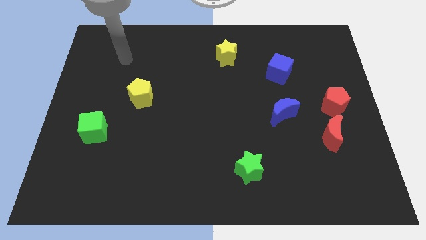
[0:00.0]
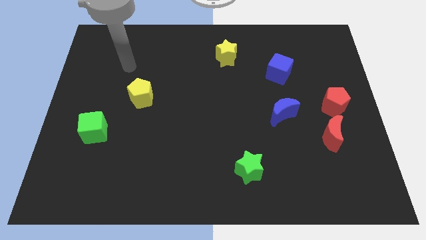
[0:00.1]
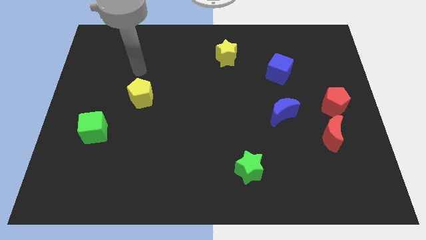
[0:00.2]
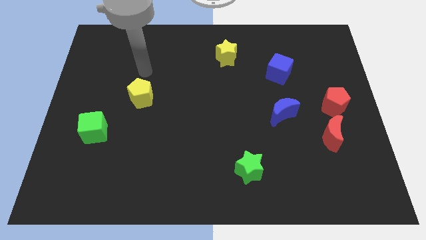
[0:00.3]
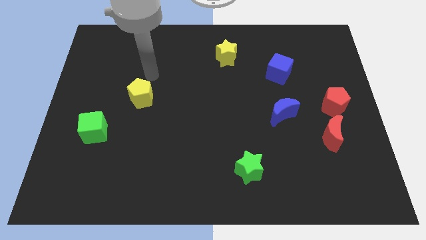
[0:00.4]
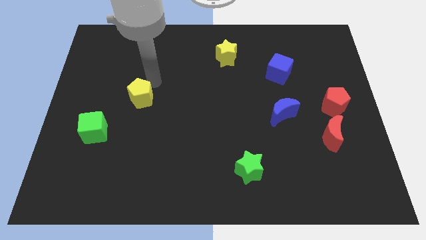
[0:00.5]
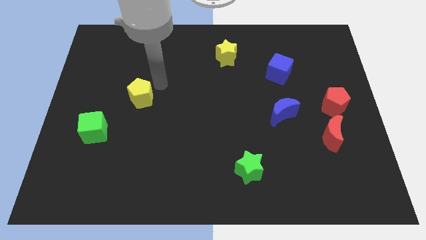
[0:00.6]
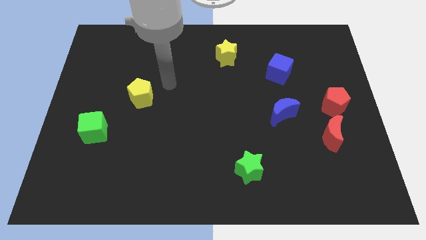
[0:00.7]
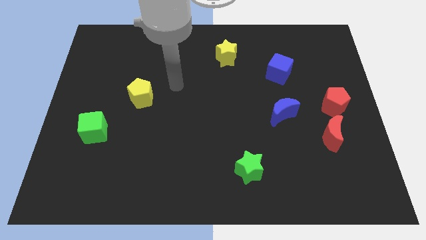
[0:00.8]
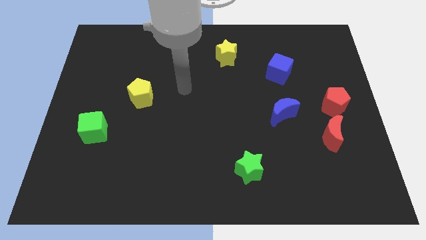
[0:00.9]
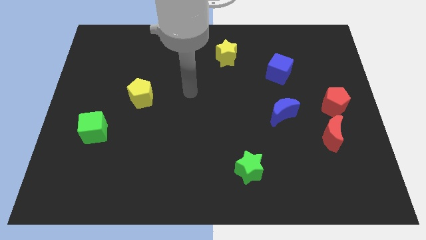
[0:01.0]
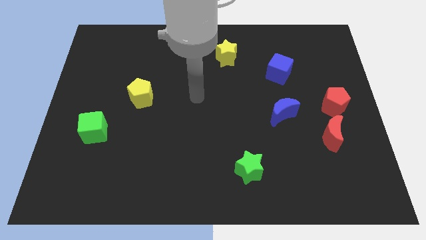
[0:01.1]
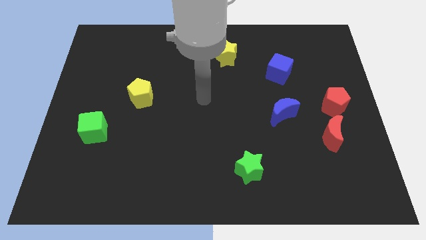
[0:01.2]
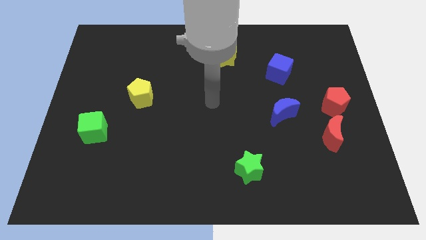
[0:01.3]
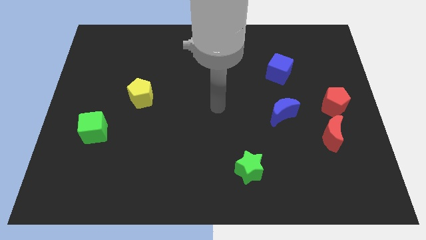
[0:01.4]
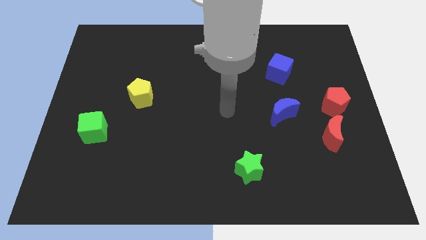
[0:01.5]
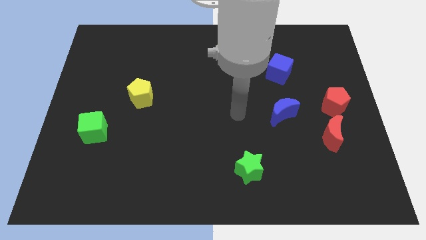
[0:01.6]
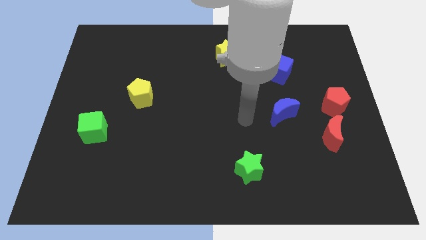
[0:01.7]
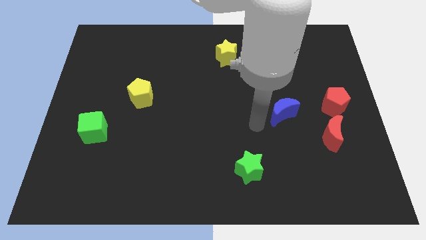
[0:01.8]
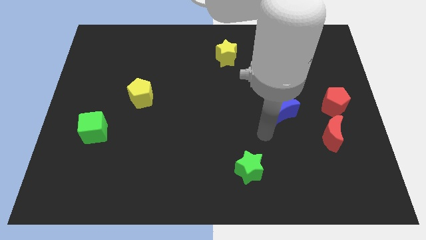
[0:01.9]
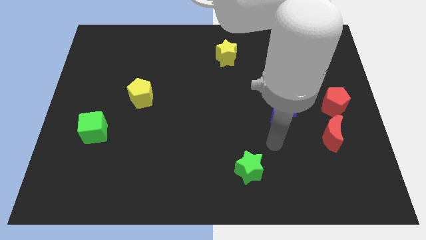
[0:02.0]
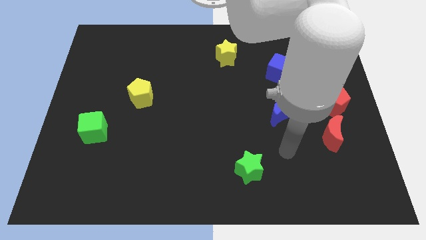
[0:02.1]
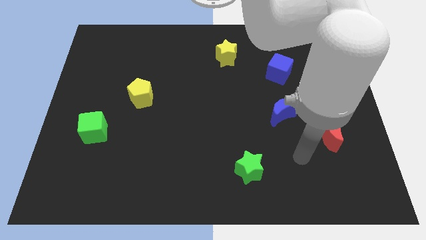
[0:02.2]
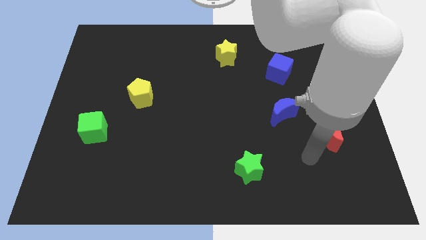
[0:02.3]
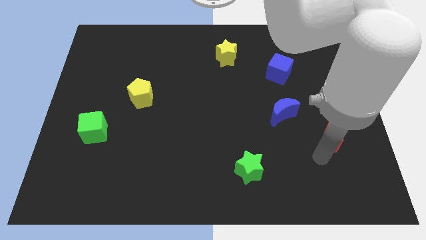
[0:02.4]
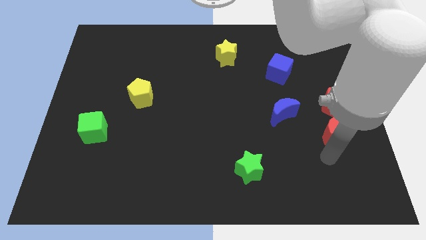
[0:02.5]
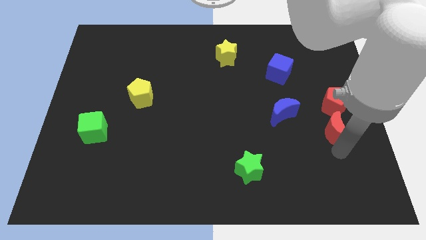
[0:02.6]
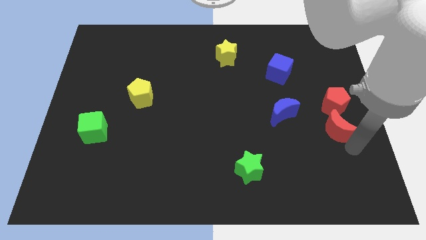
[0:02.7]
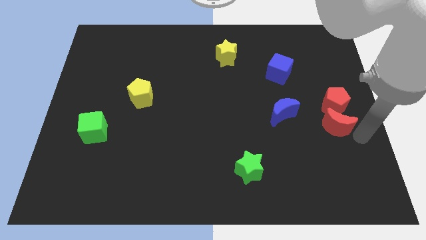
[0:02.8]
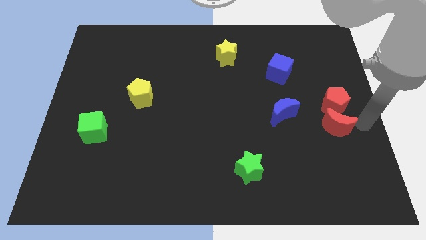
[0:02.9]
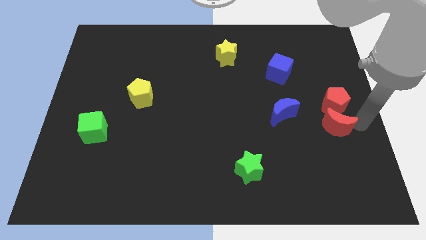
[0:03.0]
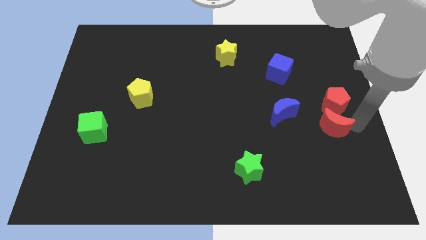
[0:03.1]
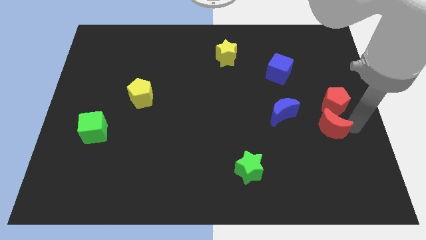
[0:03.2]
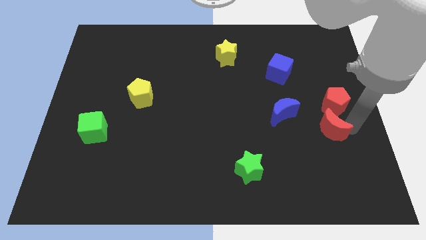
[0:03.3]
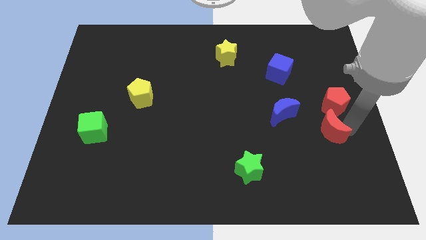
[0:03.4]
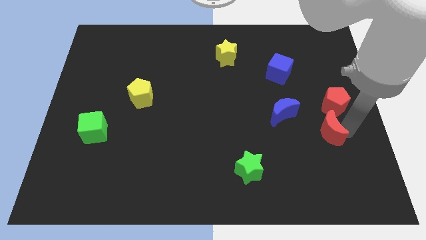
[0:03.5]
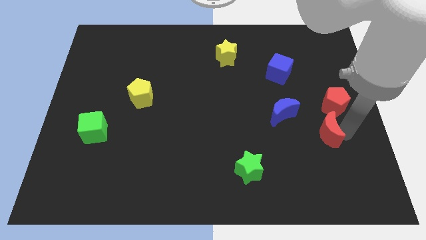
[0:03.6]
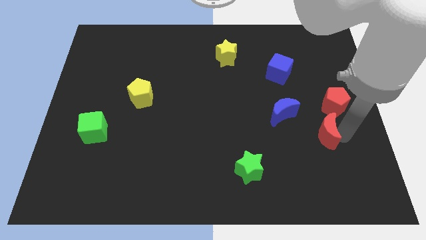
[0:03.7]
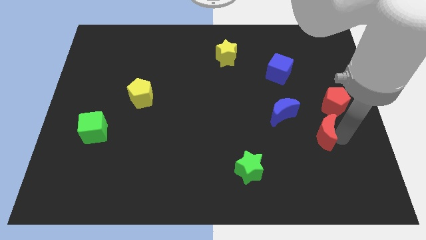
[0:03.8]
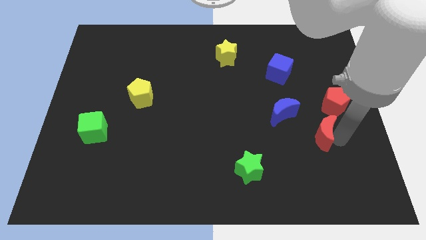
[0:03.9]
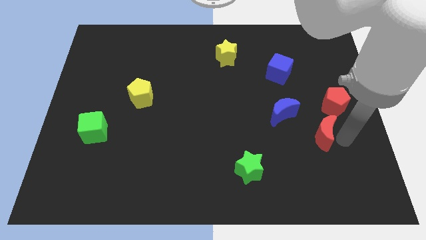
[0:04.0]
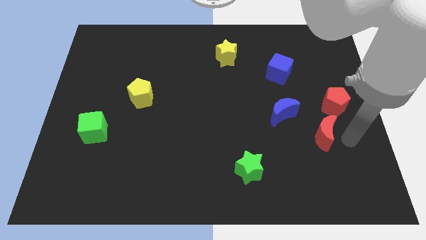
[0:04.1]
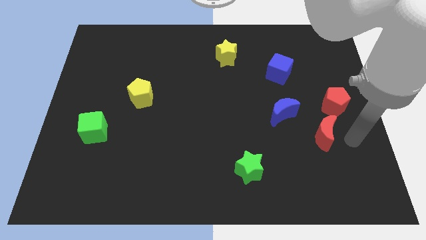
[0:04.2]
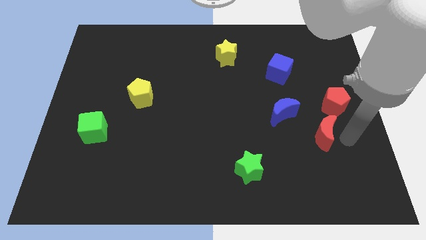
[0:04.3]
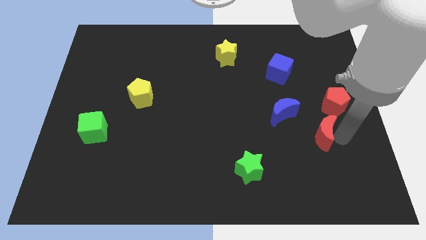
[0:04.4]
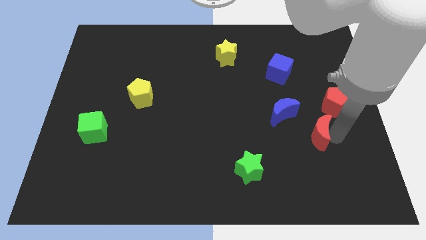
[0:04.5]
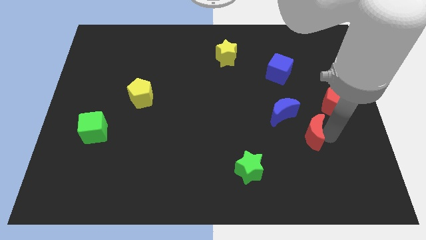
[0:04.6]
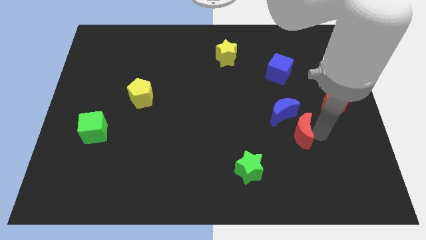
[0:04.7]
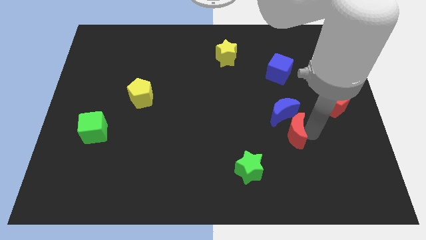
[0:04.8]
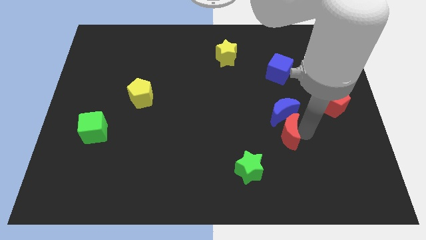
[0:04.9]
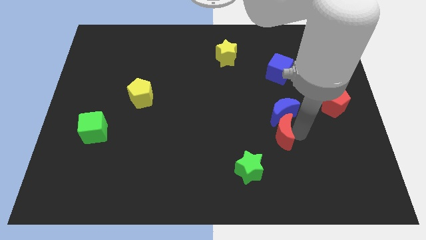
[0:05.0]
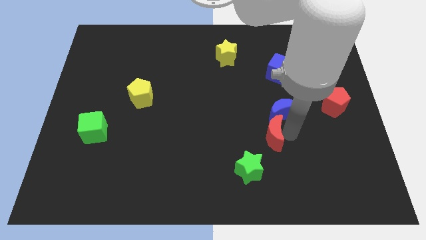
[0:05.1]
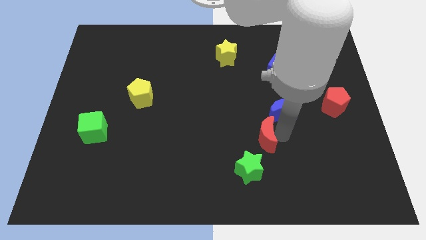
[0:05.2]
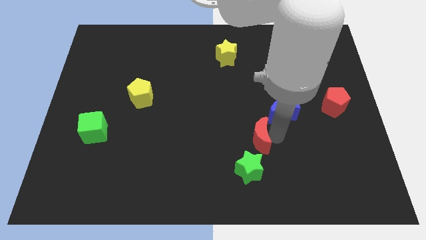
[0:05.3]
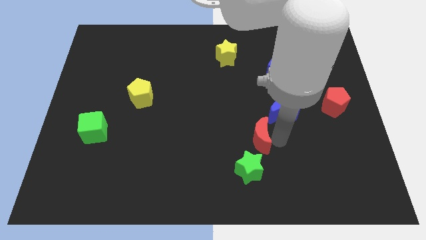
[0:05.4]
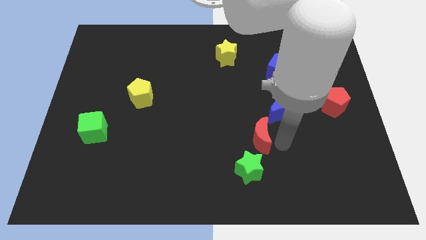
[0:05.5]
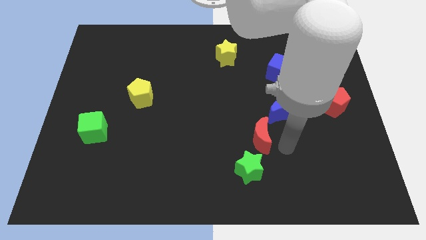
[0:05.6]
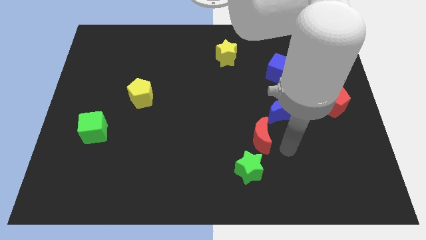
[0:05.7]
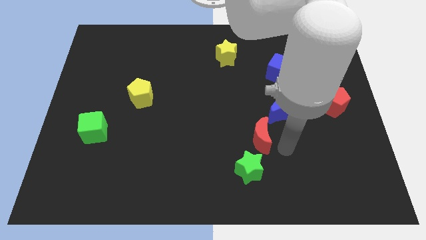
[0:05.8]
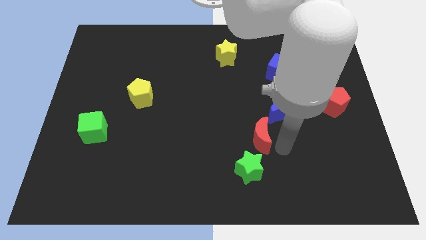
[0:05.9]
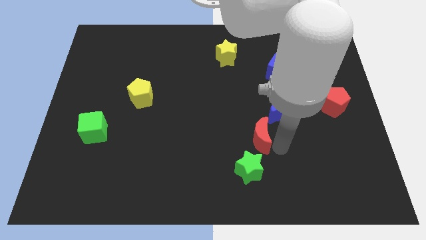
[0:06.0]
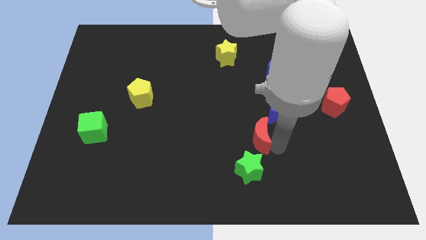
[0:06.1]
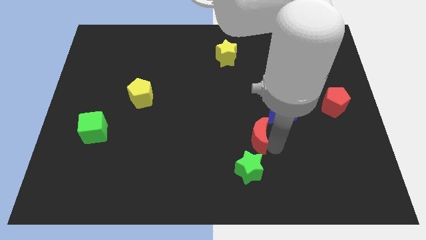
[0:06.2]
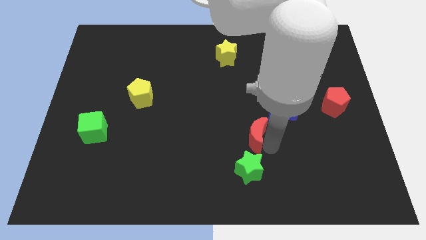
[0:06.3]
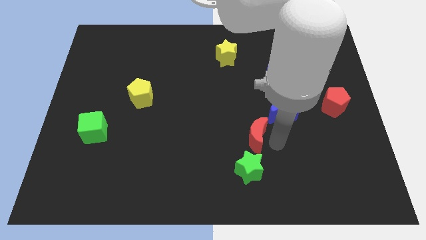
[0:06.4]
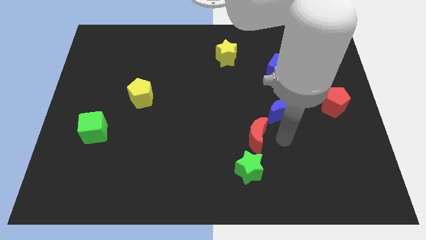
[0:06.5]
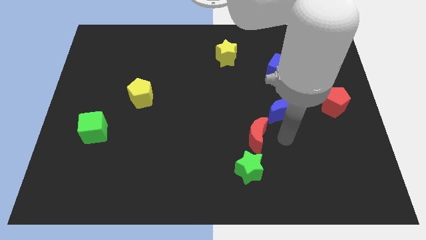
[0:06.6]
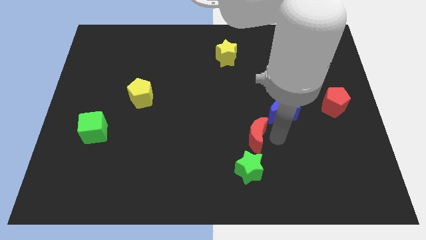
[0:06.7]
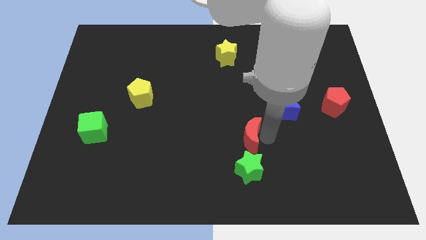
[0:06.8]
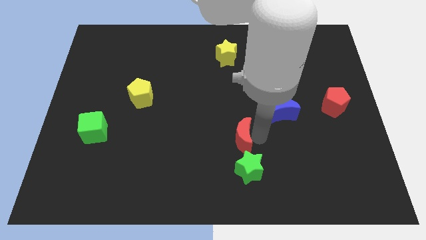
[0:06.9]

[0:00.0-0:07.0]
slide the red moon to the left

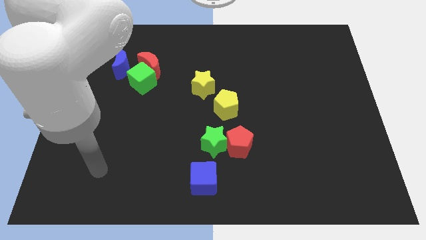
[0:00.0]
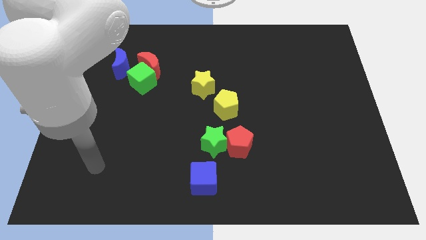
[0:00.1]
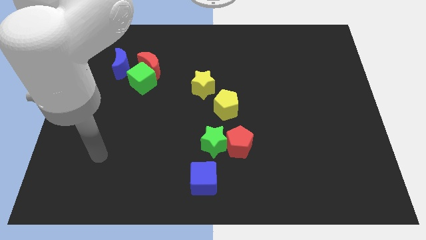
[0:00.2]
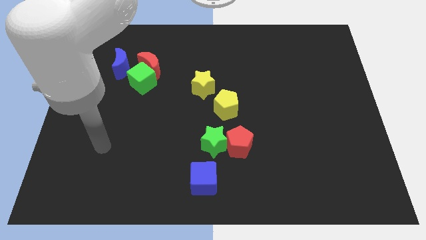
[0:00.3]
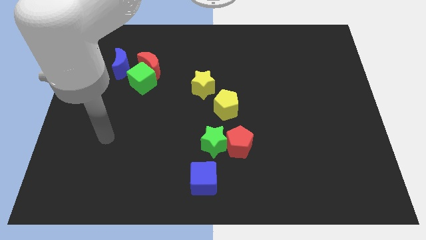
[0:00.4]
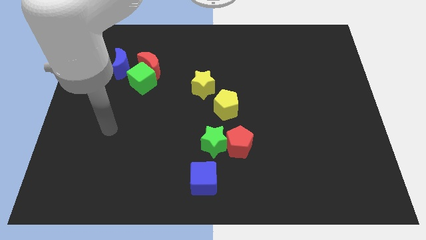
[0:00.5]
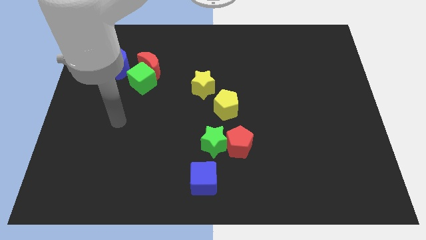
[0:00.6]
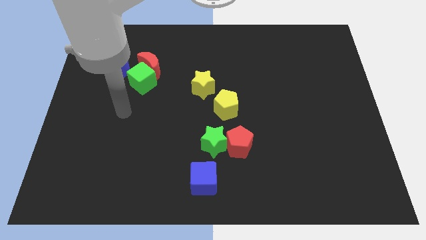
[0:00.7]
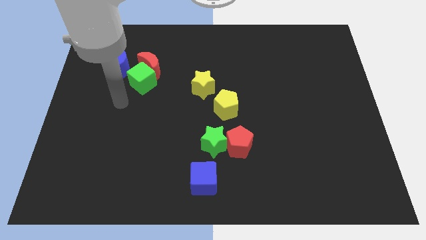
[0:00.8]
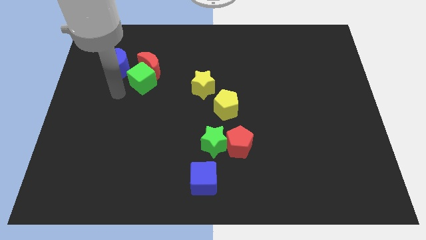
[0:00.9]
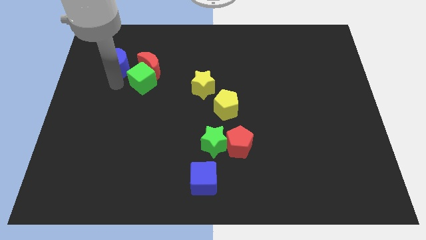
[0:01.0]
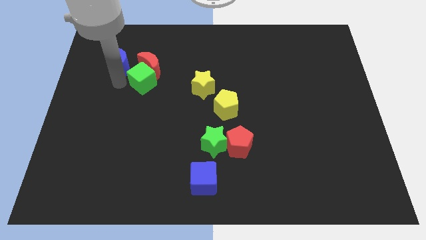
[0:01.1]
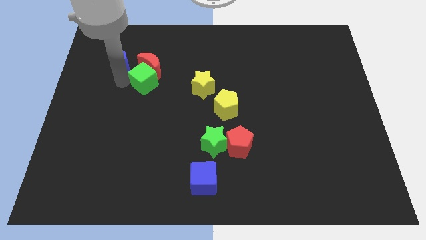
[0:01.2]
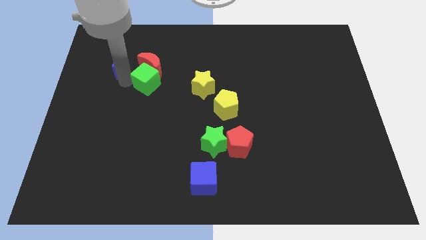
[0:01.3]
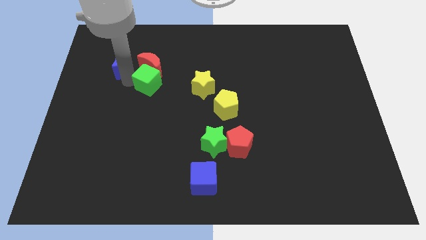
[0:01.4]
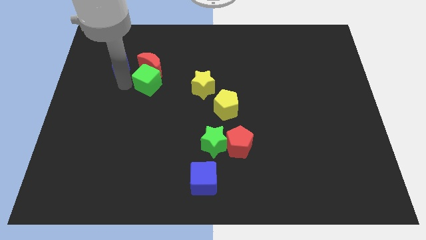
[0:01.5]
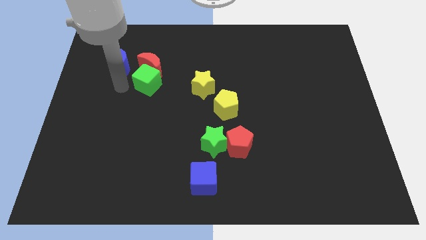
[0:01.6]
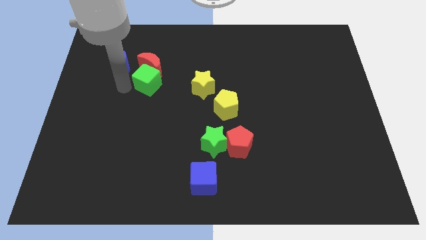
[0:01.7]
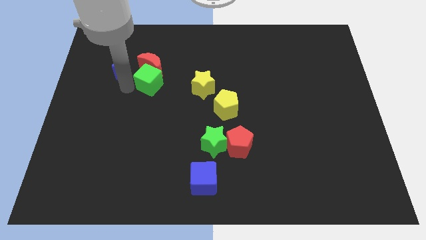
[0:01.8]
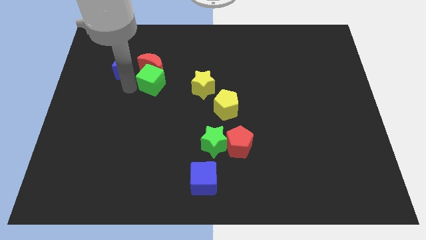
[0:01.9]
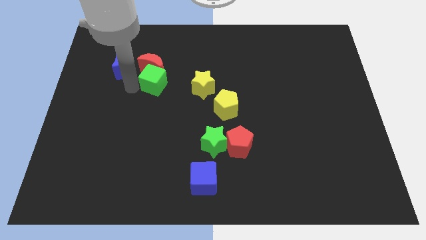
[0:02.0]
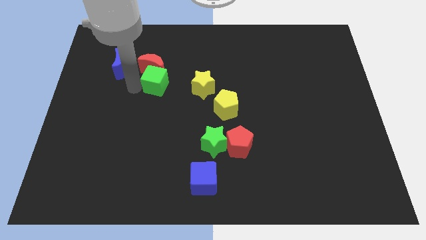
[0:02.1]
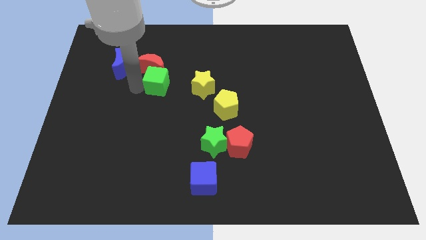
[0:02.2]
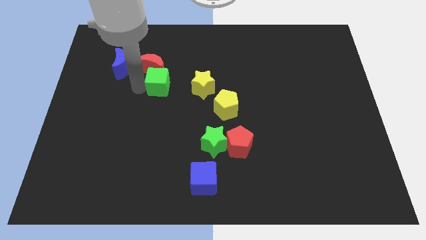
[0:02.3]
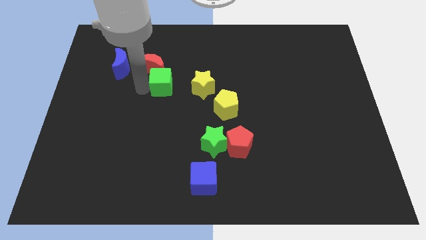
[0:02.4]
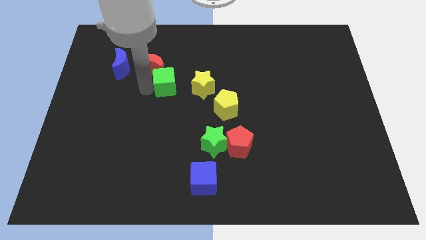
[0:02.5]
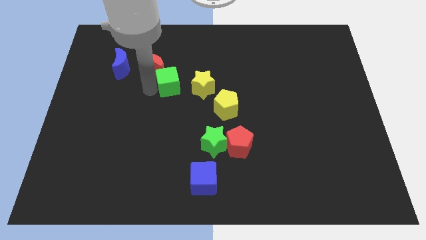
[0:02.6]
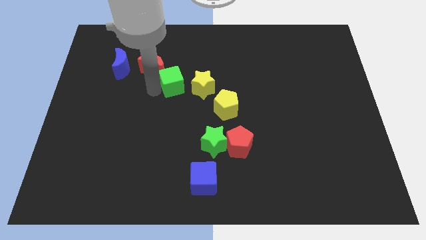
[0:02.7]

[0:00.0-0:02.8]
slide the green cube right a bit
